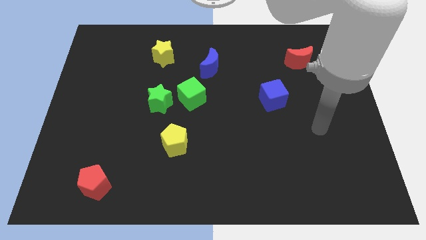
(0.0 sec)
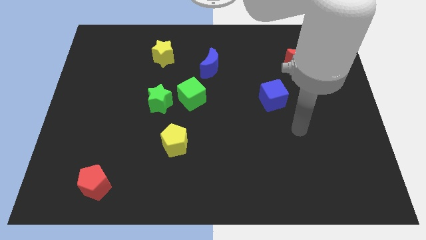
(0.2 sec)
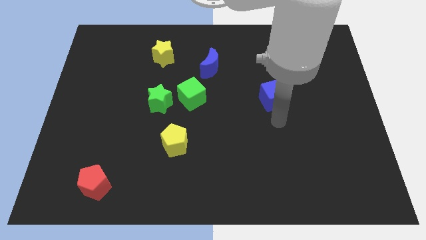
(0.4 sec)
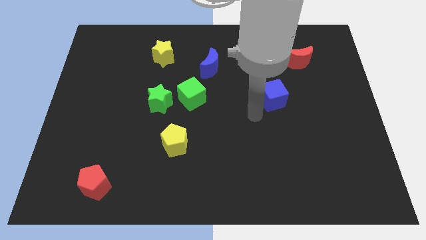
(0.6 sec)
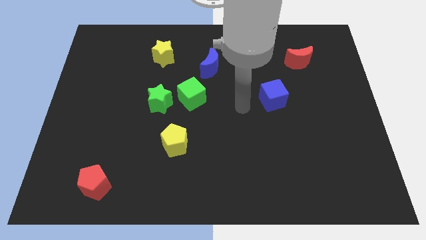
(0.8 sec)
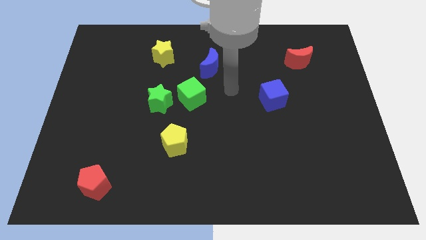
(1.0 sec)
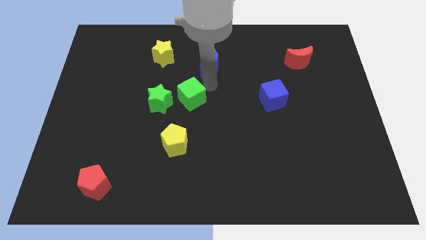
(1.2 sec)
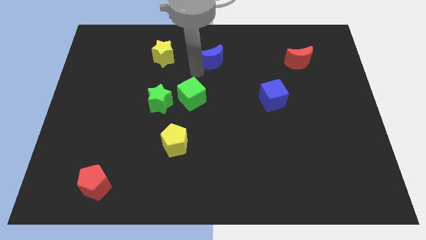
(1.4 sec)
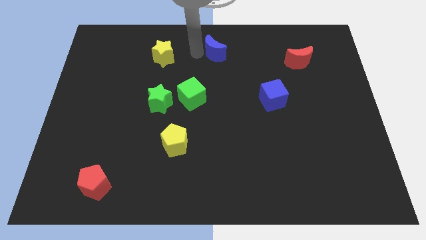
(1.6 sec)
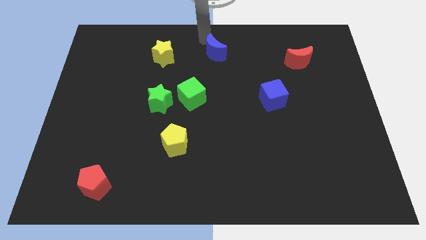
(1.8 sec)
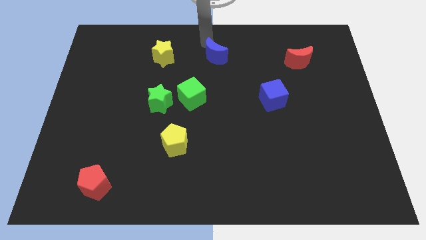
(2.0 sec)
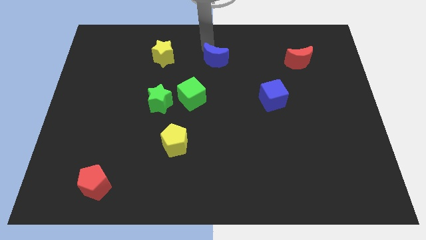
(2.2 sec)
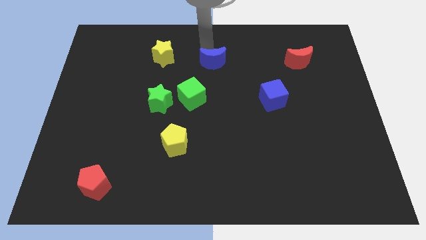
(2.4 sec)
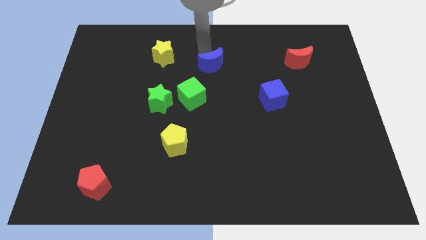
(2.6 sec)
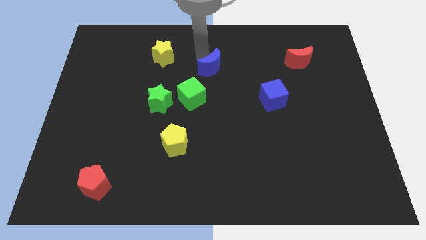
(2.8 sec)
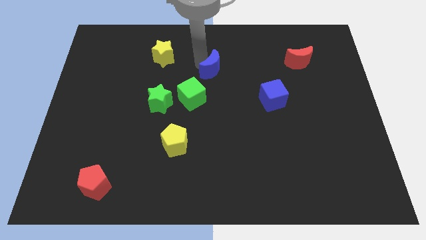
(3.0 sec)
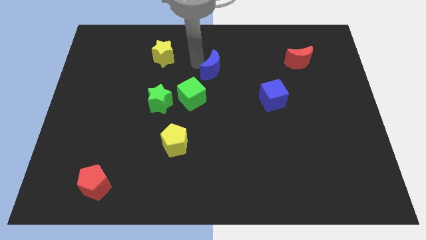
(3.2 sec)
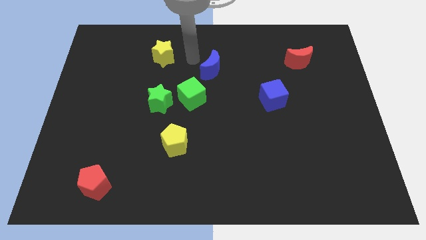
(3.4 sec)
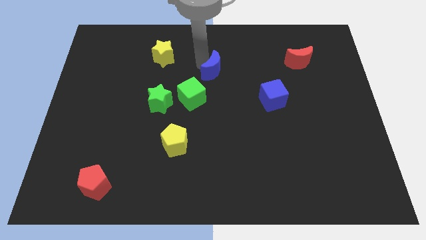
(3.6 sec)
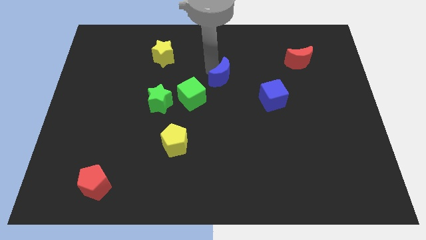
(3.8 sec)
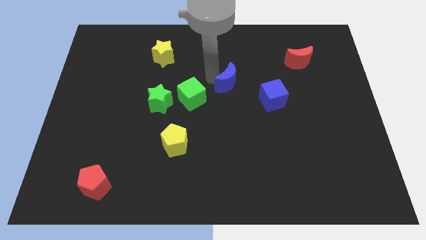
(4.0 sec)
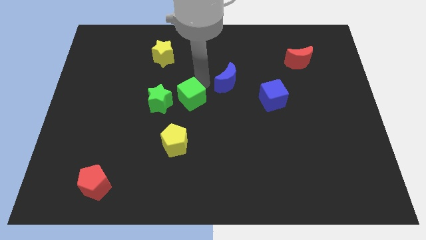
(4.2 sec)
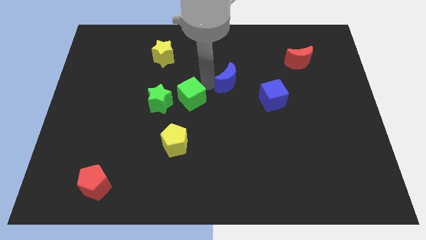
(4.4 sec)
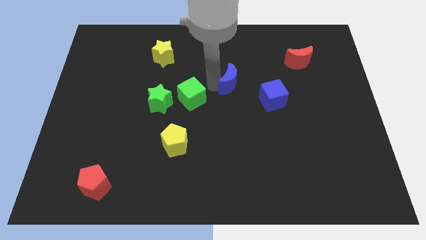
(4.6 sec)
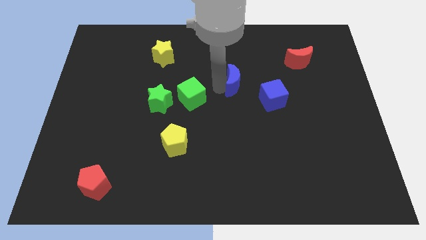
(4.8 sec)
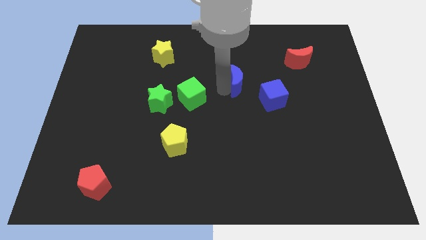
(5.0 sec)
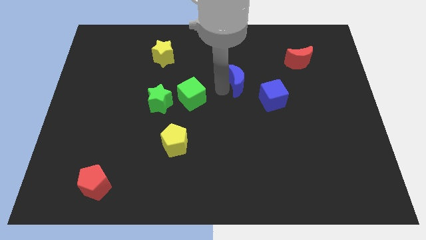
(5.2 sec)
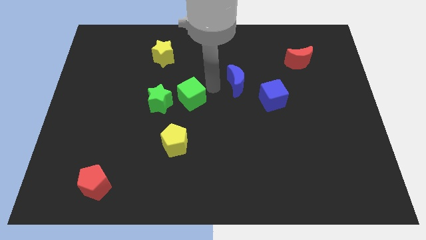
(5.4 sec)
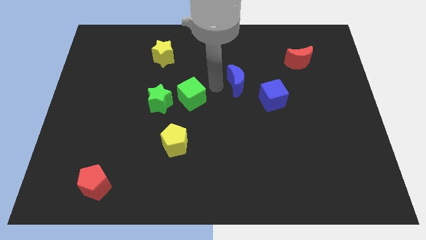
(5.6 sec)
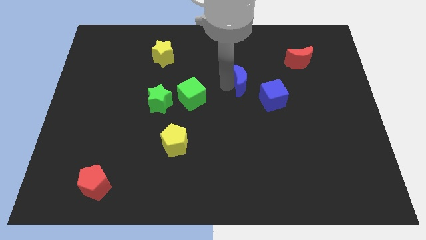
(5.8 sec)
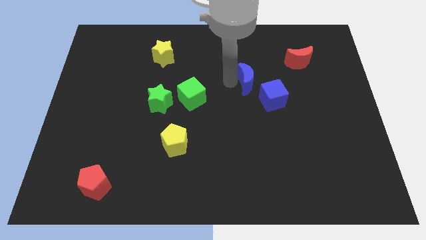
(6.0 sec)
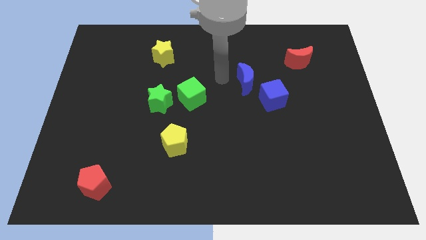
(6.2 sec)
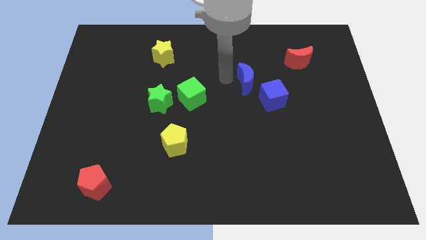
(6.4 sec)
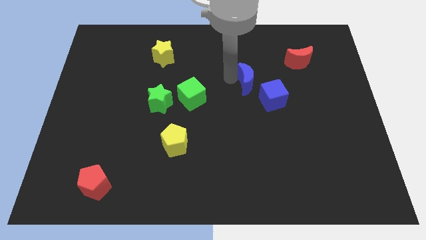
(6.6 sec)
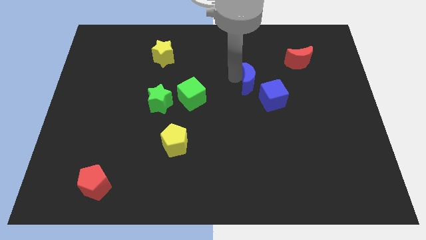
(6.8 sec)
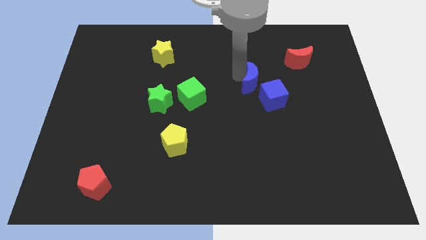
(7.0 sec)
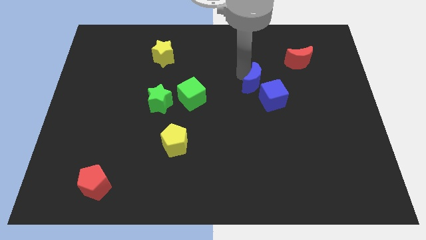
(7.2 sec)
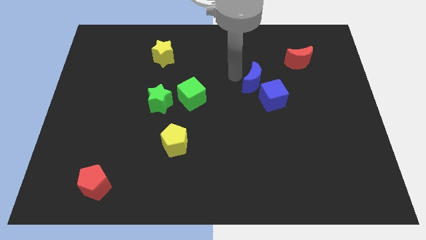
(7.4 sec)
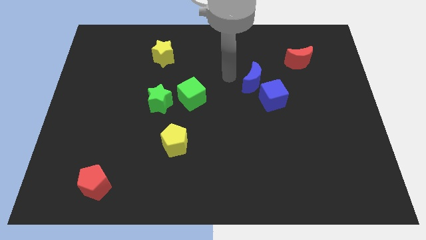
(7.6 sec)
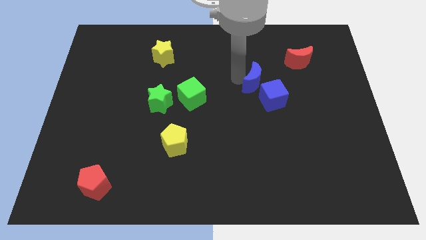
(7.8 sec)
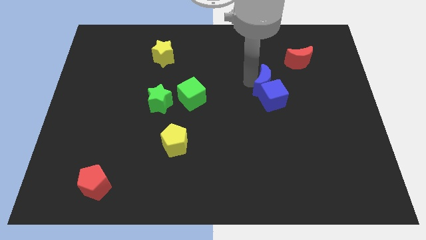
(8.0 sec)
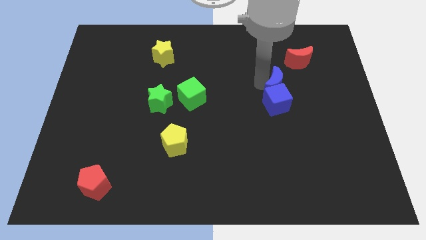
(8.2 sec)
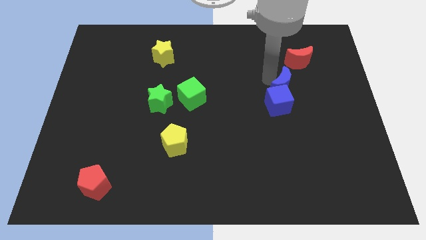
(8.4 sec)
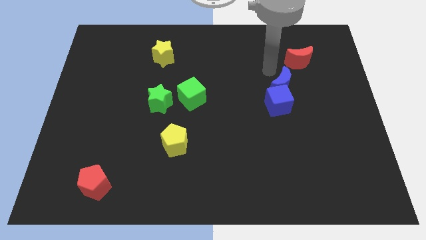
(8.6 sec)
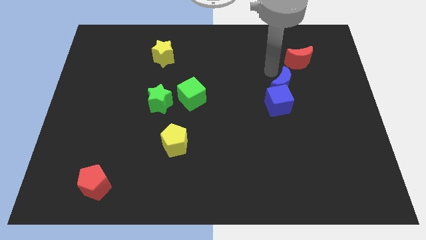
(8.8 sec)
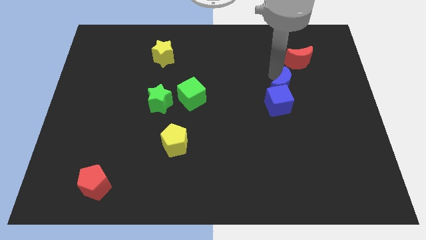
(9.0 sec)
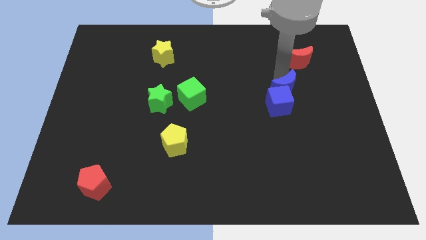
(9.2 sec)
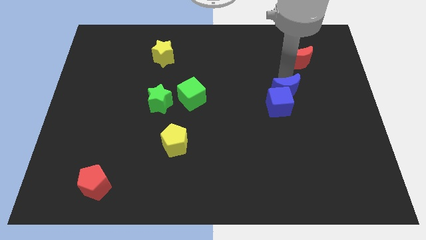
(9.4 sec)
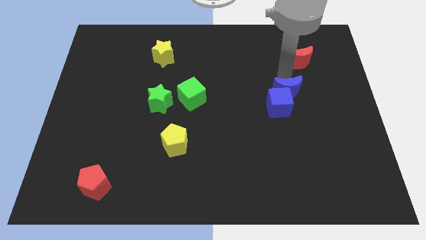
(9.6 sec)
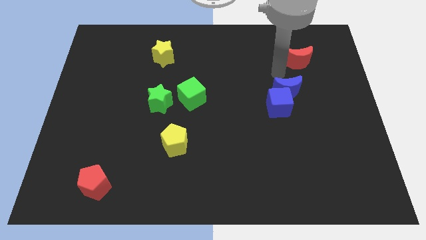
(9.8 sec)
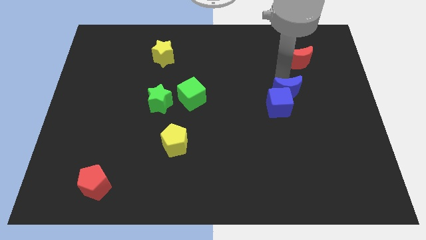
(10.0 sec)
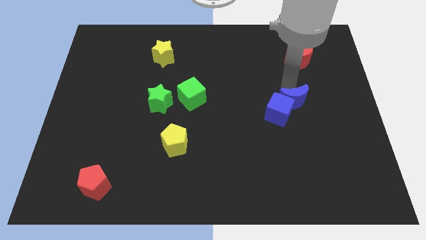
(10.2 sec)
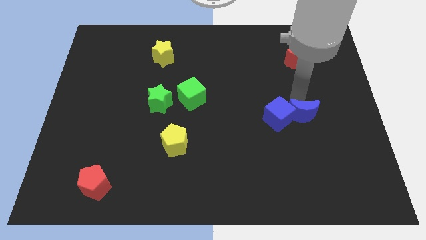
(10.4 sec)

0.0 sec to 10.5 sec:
push the blue moon to the bottom right of the blue cube

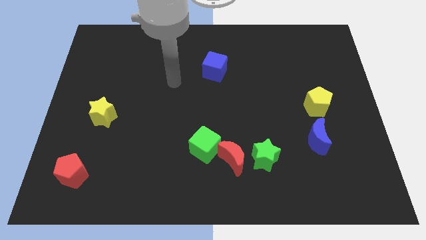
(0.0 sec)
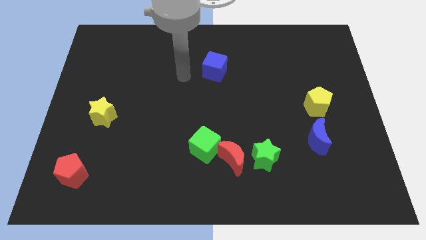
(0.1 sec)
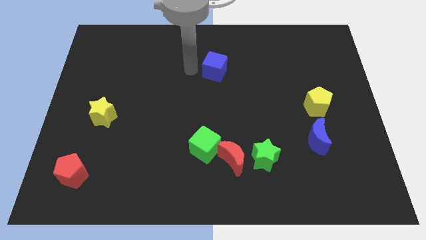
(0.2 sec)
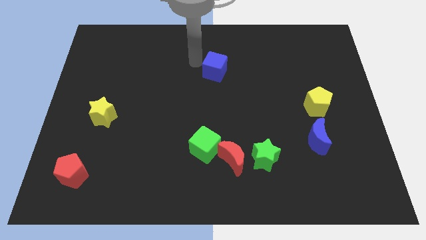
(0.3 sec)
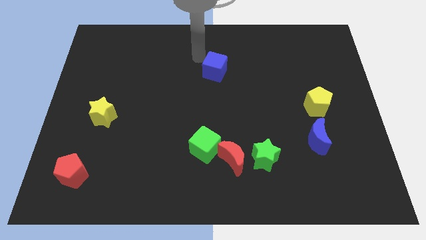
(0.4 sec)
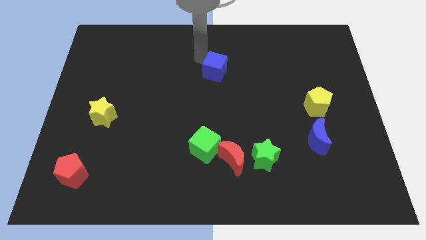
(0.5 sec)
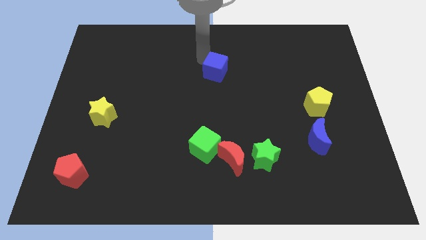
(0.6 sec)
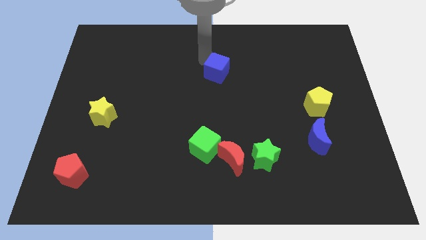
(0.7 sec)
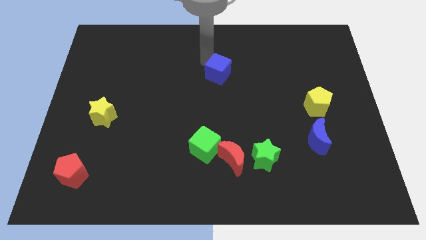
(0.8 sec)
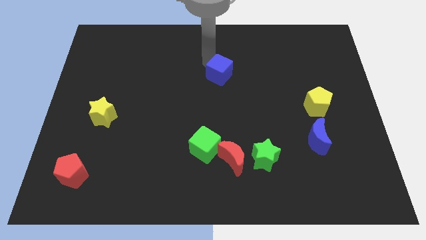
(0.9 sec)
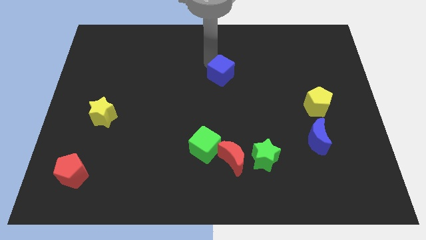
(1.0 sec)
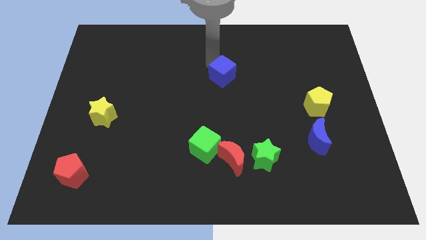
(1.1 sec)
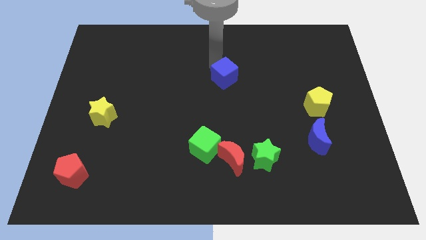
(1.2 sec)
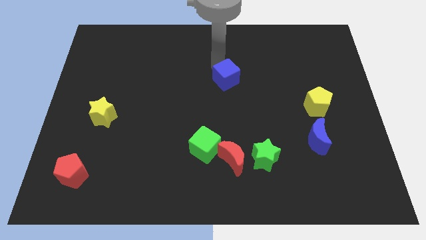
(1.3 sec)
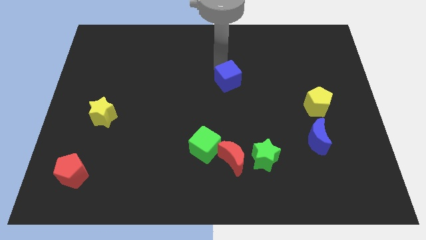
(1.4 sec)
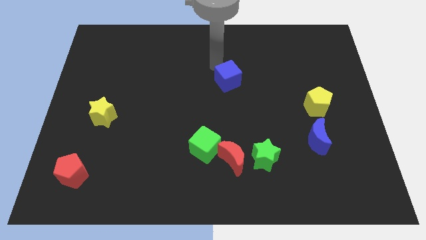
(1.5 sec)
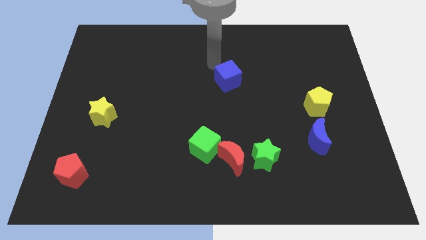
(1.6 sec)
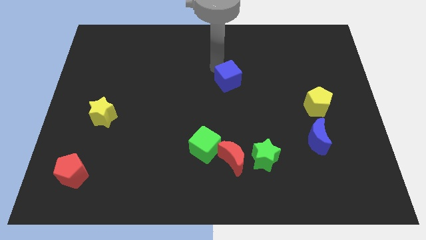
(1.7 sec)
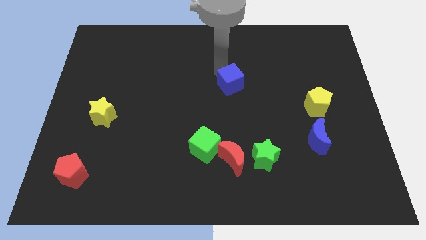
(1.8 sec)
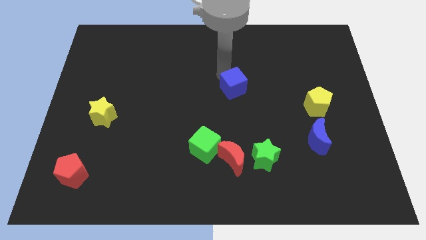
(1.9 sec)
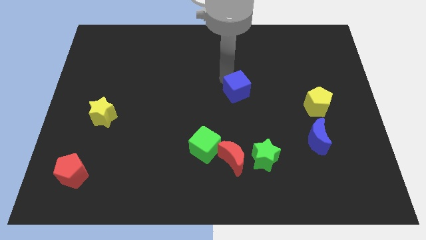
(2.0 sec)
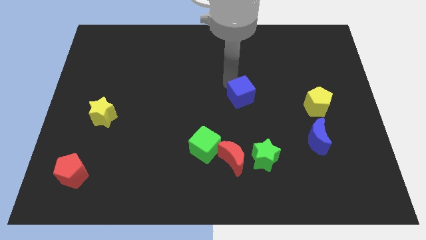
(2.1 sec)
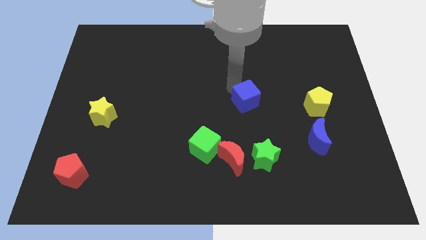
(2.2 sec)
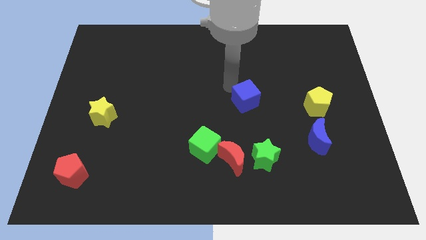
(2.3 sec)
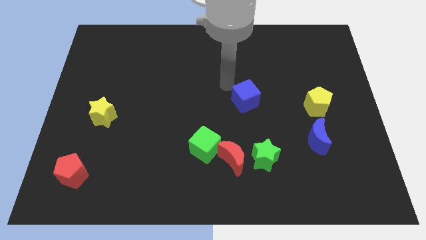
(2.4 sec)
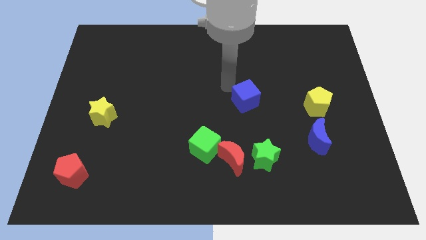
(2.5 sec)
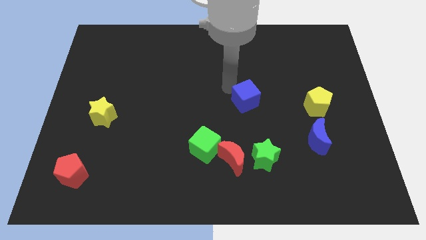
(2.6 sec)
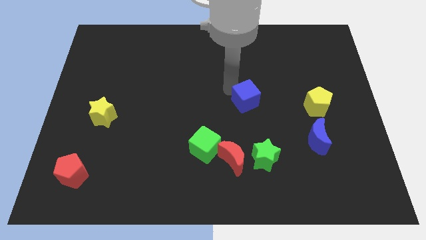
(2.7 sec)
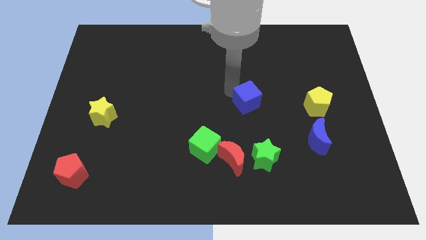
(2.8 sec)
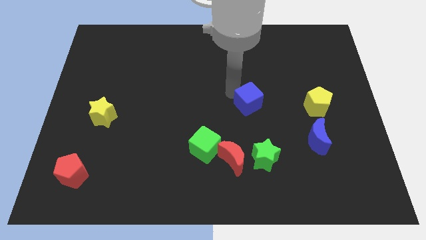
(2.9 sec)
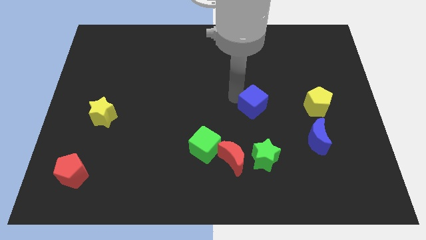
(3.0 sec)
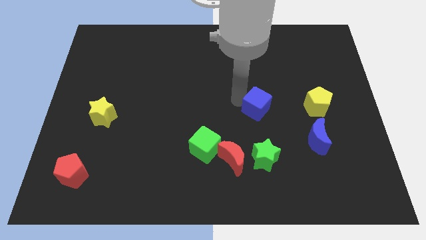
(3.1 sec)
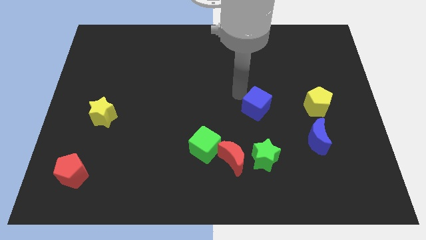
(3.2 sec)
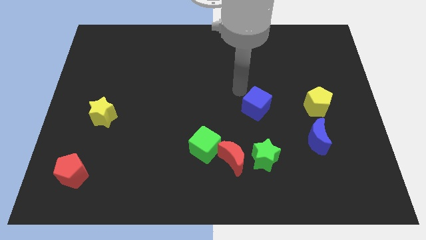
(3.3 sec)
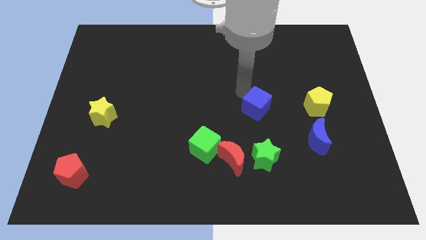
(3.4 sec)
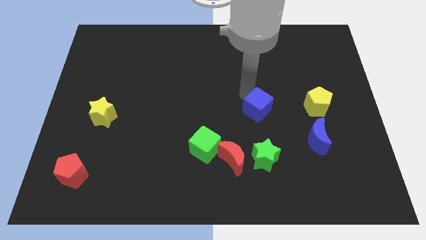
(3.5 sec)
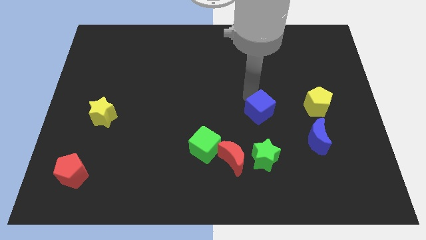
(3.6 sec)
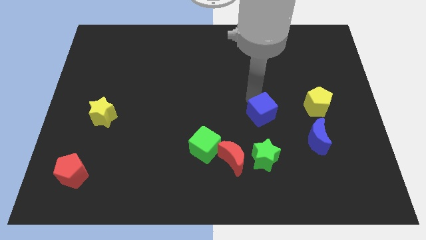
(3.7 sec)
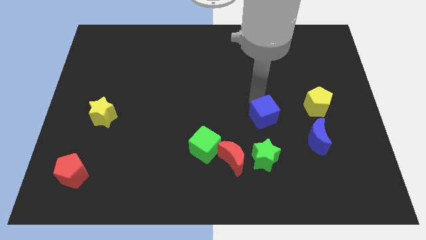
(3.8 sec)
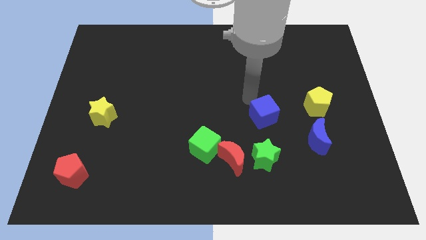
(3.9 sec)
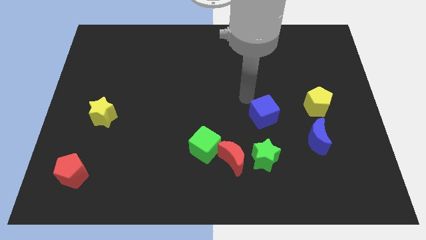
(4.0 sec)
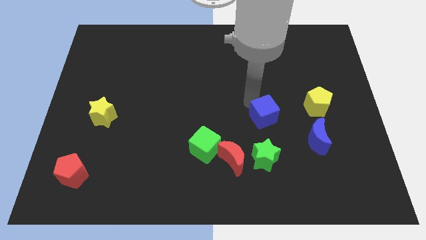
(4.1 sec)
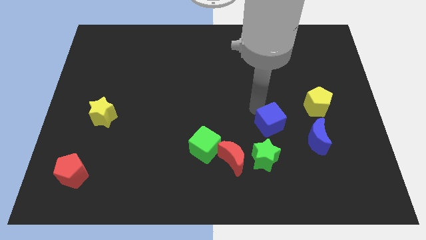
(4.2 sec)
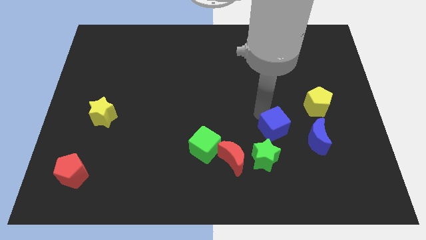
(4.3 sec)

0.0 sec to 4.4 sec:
slide the blue cube diagonally up and to the right of the green star
